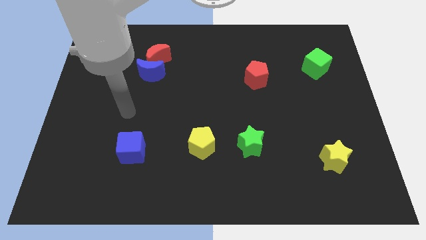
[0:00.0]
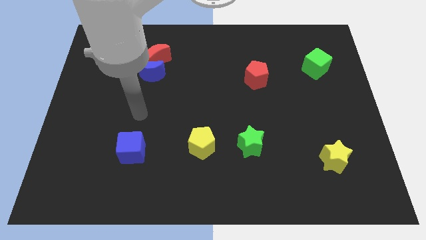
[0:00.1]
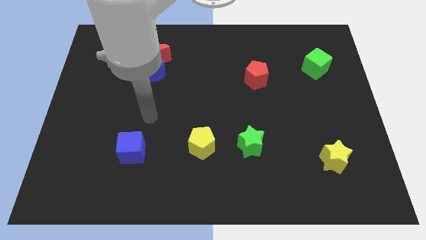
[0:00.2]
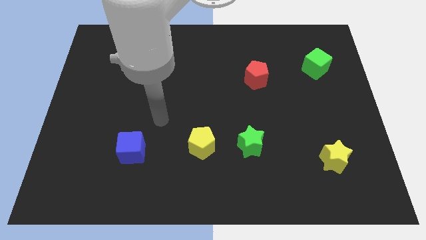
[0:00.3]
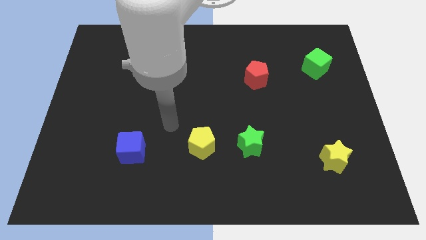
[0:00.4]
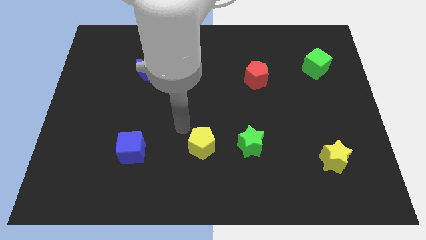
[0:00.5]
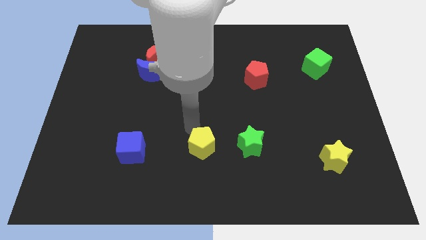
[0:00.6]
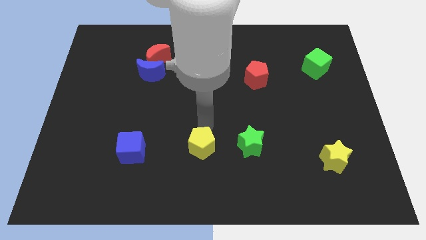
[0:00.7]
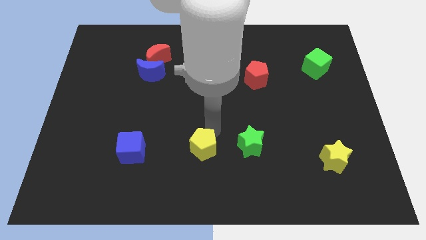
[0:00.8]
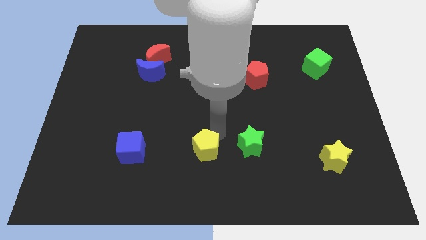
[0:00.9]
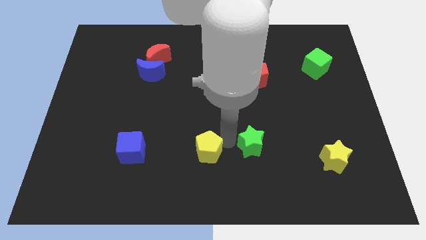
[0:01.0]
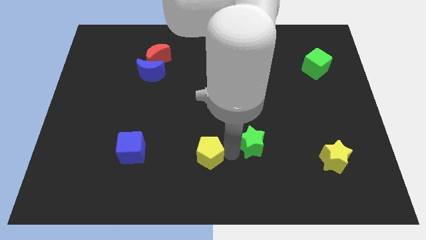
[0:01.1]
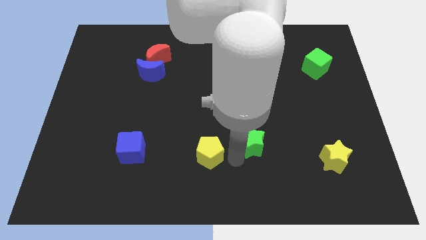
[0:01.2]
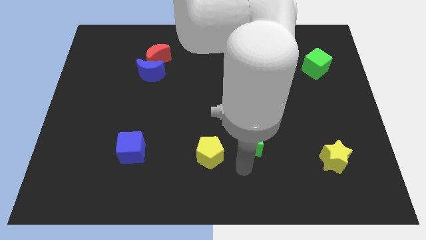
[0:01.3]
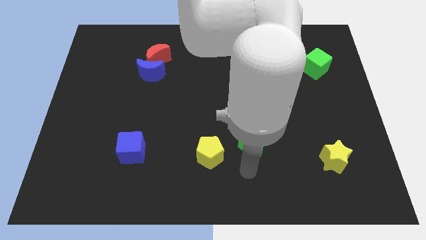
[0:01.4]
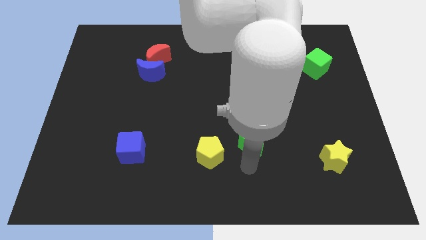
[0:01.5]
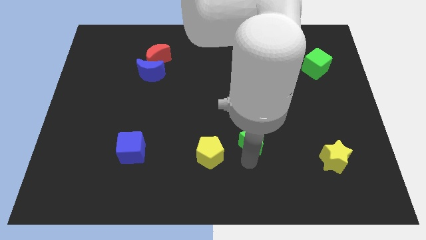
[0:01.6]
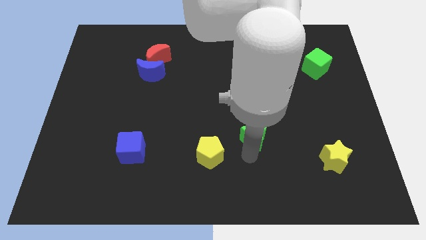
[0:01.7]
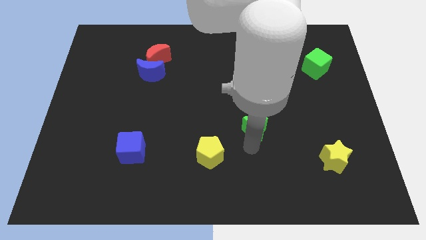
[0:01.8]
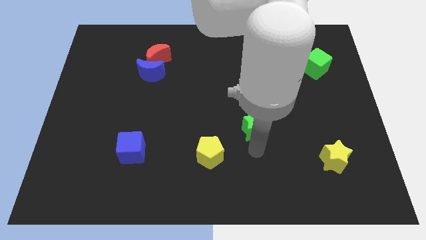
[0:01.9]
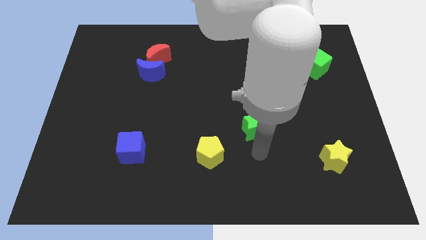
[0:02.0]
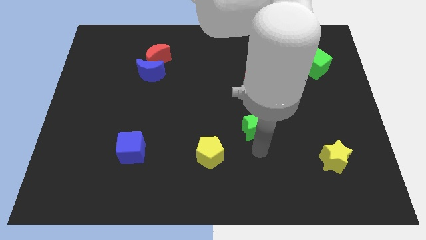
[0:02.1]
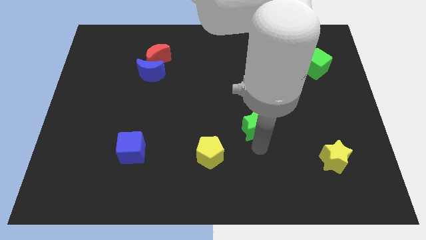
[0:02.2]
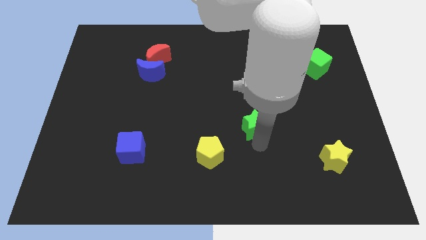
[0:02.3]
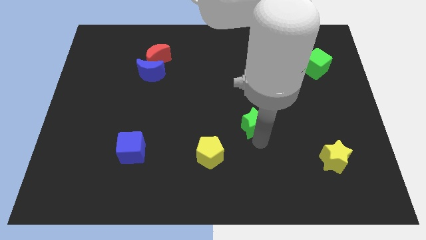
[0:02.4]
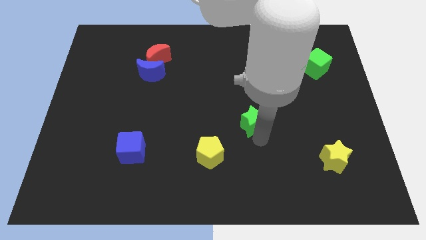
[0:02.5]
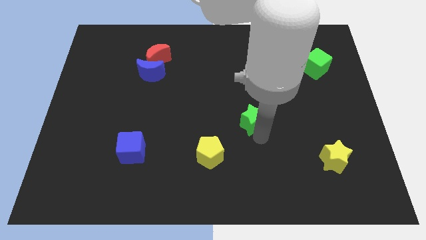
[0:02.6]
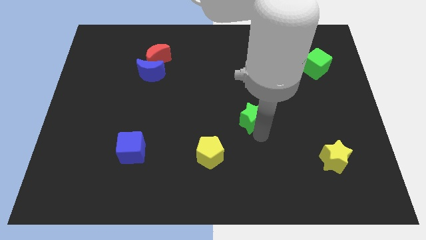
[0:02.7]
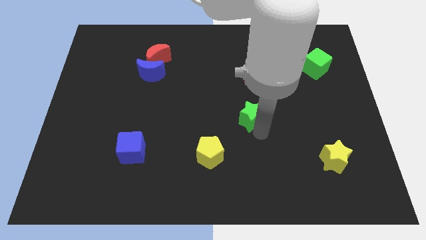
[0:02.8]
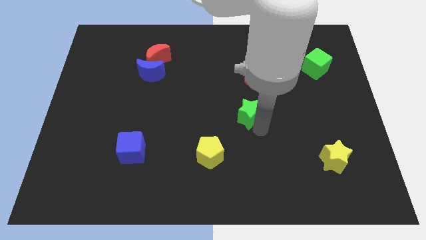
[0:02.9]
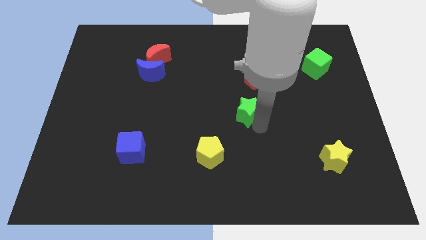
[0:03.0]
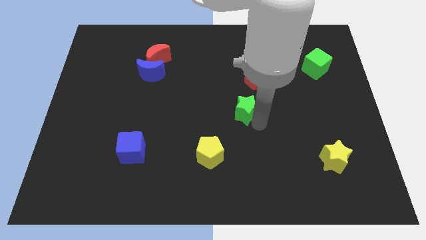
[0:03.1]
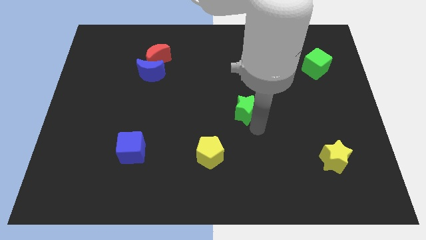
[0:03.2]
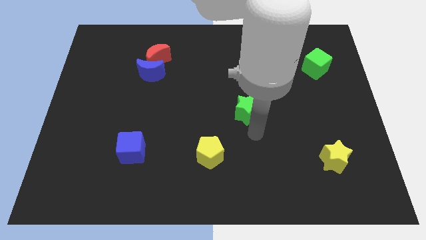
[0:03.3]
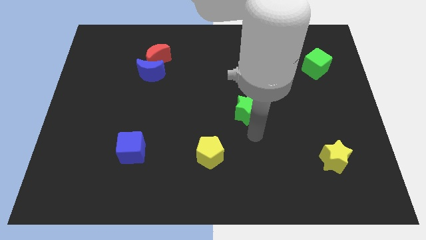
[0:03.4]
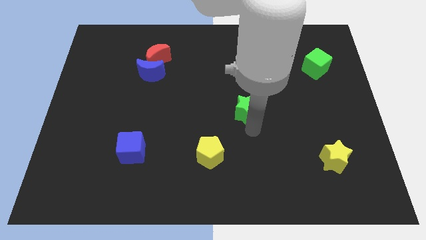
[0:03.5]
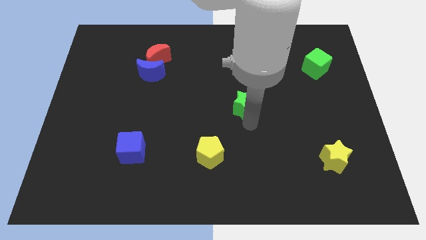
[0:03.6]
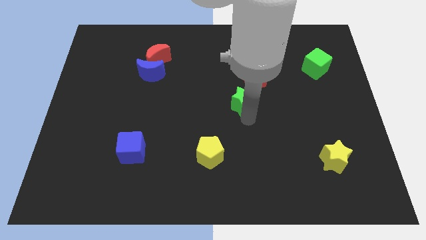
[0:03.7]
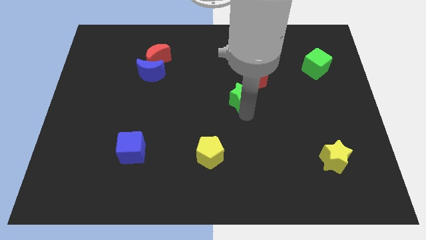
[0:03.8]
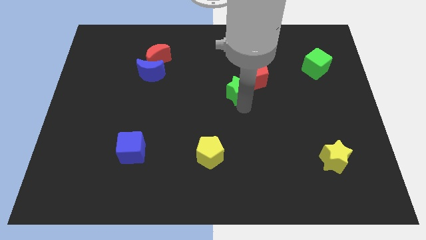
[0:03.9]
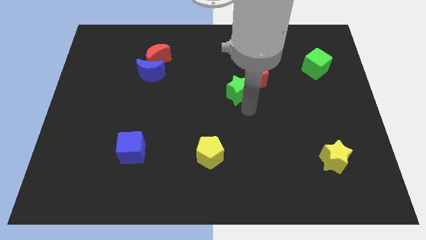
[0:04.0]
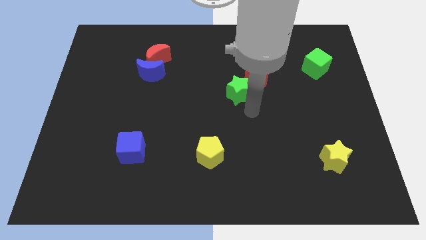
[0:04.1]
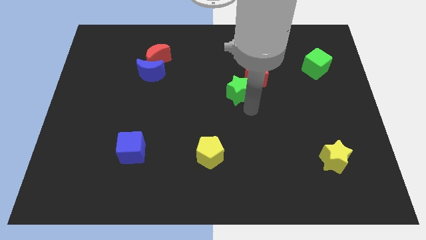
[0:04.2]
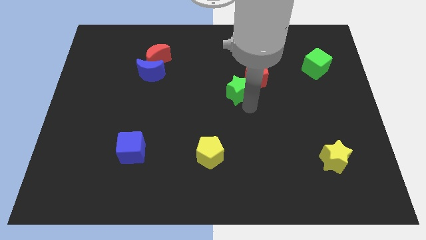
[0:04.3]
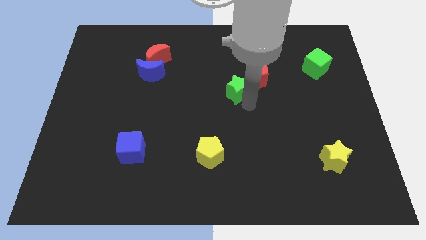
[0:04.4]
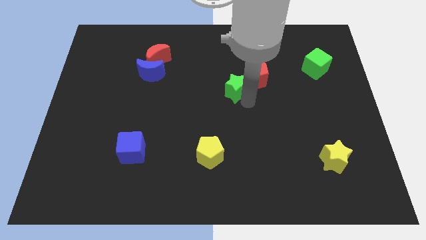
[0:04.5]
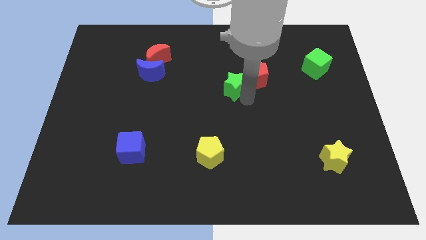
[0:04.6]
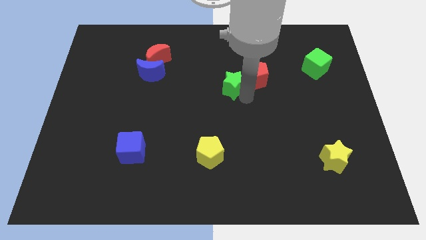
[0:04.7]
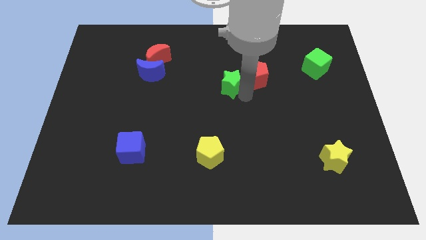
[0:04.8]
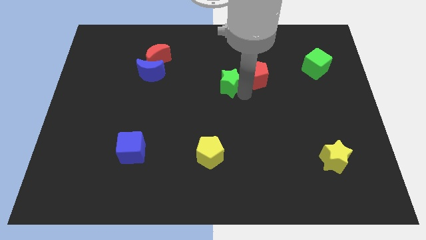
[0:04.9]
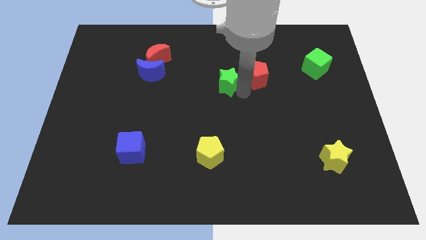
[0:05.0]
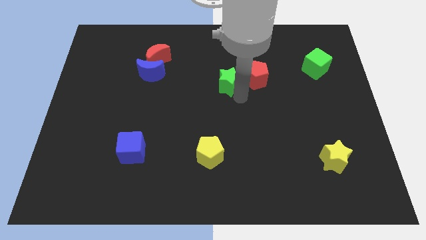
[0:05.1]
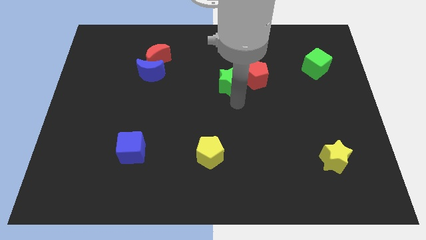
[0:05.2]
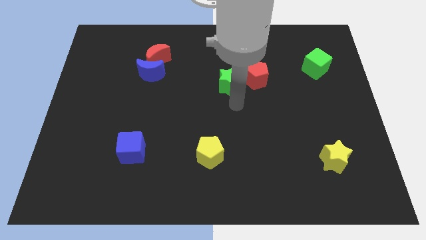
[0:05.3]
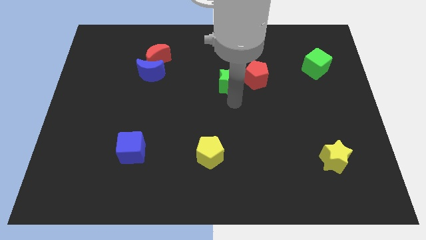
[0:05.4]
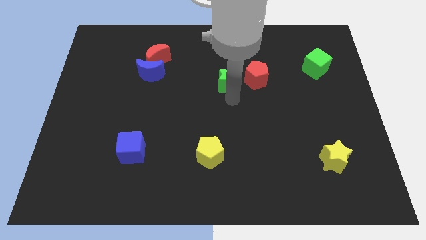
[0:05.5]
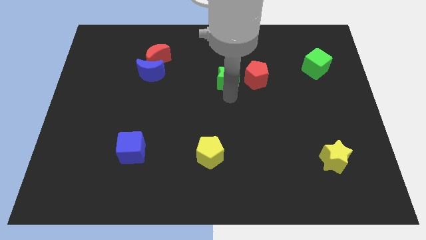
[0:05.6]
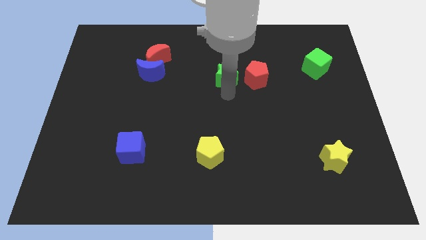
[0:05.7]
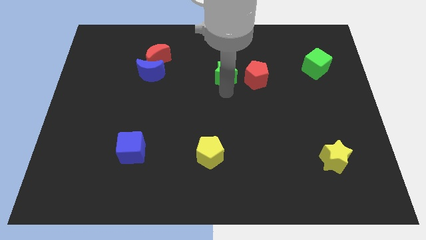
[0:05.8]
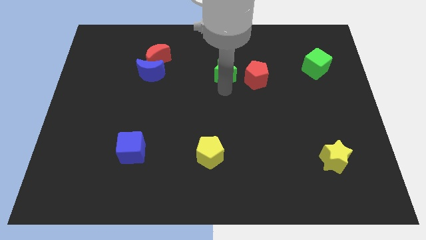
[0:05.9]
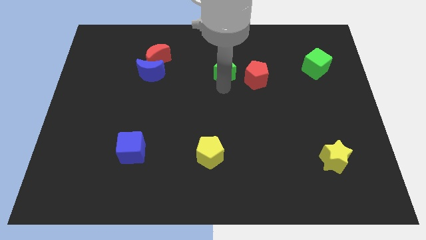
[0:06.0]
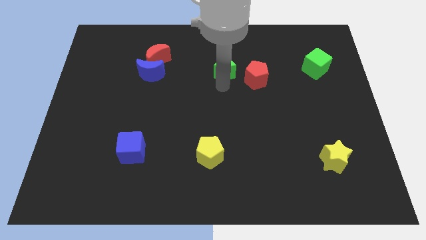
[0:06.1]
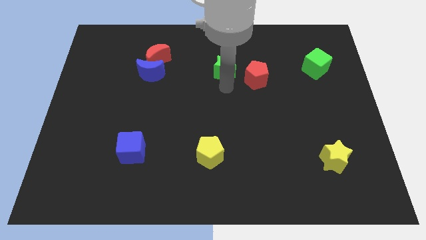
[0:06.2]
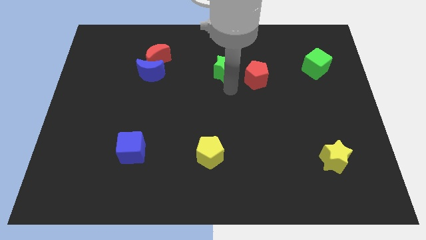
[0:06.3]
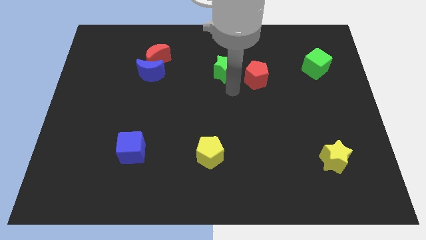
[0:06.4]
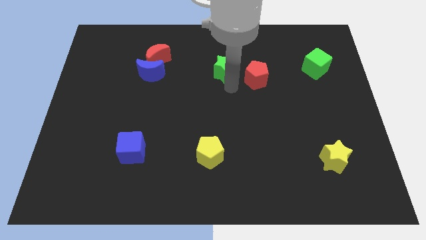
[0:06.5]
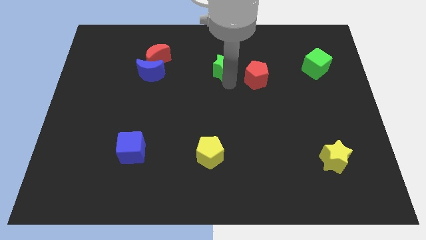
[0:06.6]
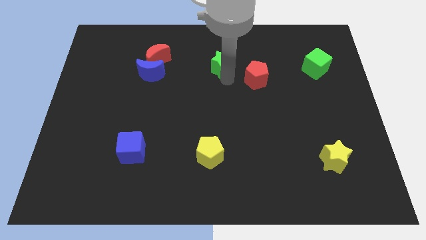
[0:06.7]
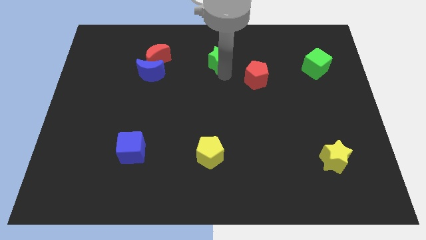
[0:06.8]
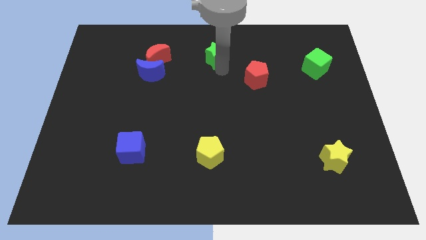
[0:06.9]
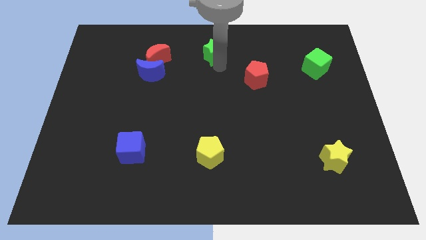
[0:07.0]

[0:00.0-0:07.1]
put the green star to the top

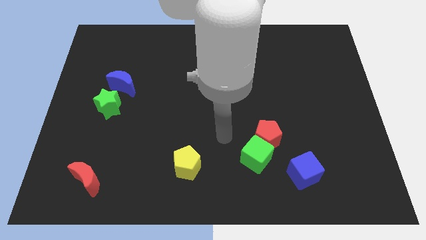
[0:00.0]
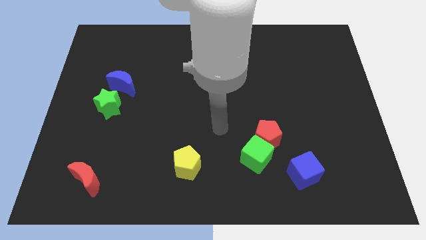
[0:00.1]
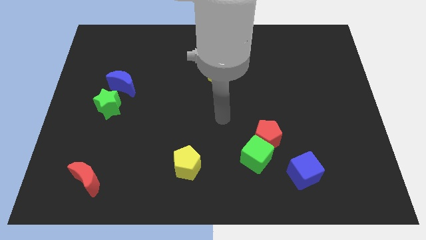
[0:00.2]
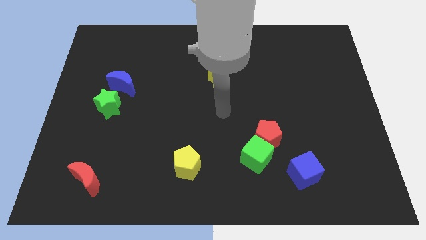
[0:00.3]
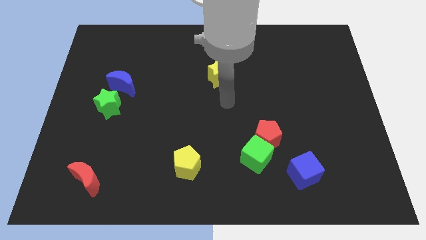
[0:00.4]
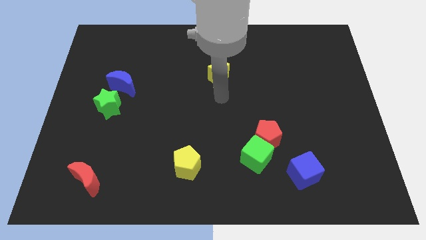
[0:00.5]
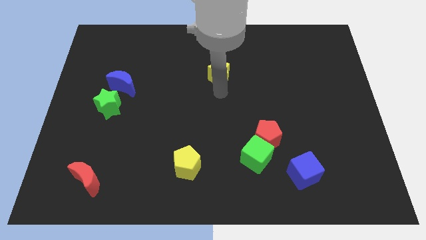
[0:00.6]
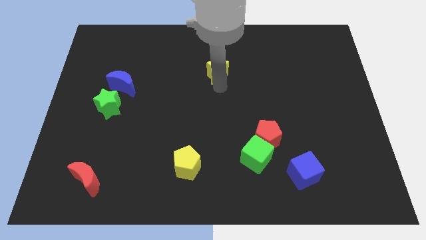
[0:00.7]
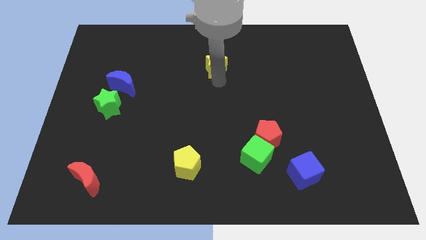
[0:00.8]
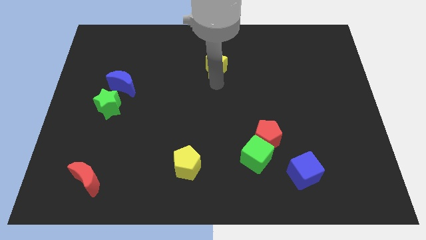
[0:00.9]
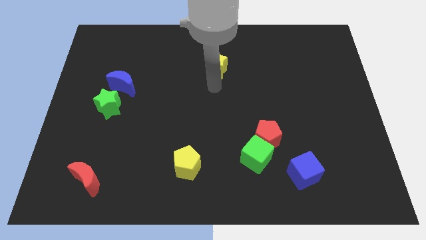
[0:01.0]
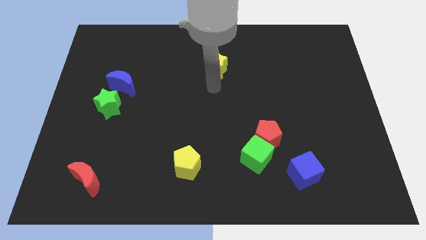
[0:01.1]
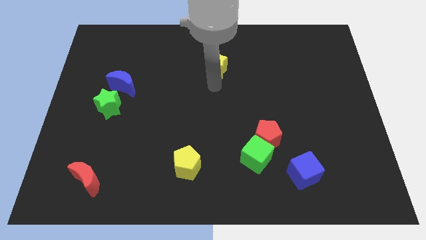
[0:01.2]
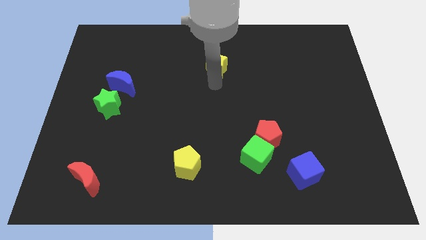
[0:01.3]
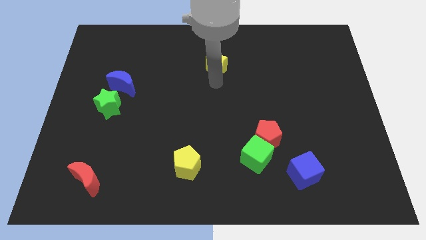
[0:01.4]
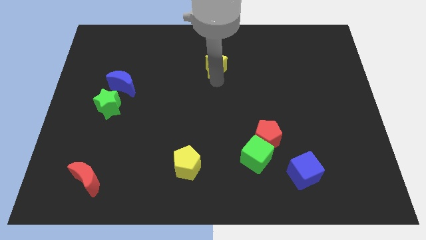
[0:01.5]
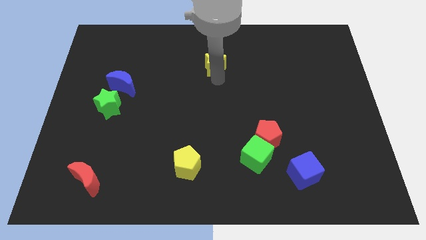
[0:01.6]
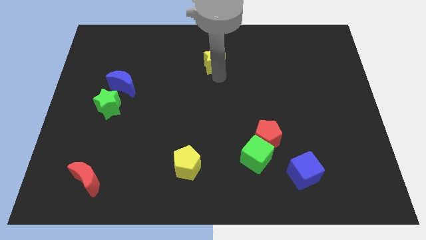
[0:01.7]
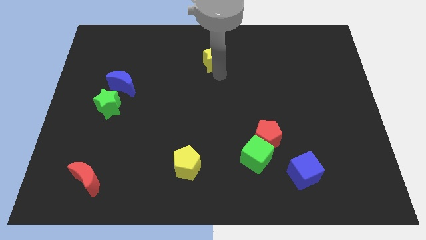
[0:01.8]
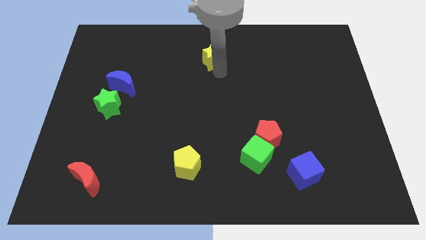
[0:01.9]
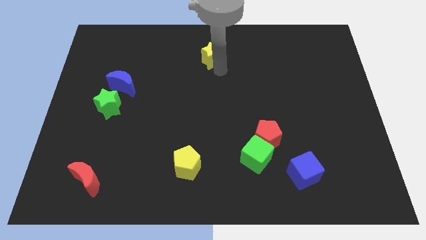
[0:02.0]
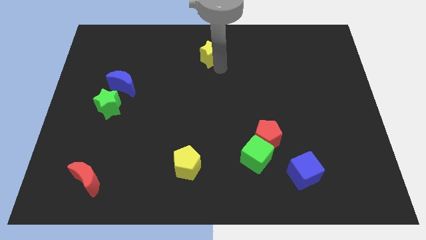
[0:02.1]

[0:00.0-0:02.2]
move the yellow star to the top
